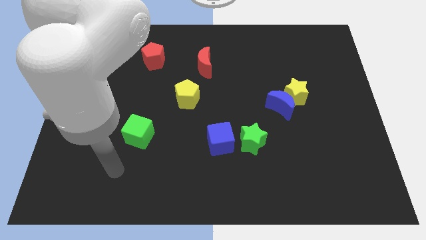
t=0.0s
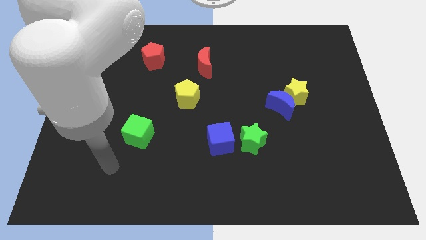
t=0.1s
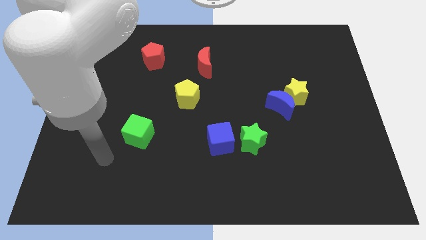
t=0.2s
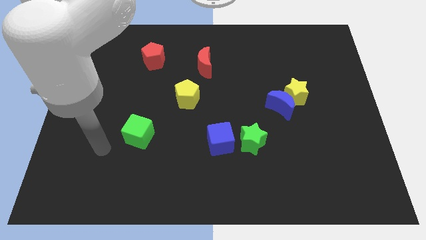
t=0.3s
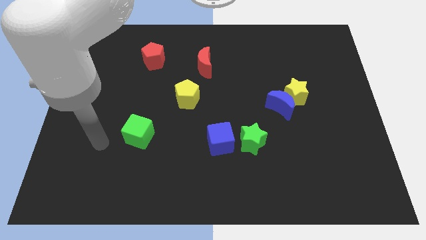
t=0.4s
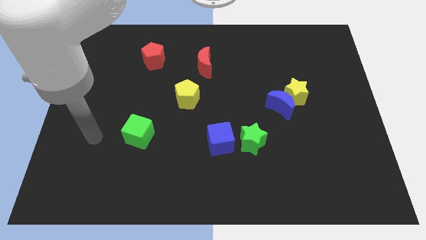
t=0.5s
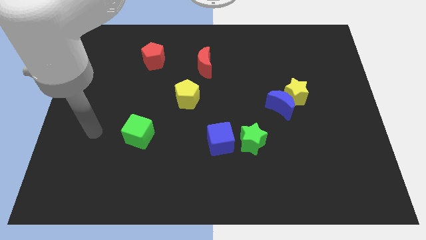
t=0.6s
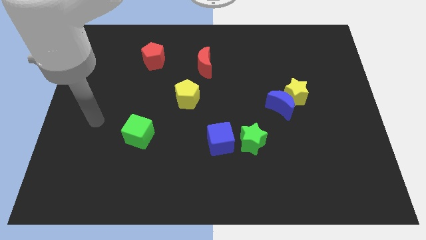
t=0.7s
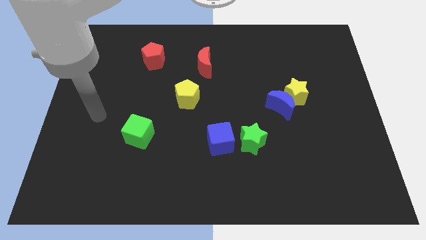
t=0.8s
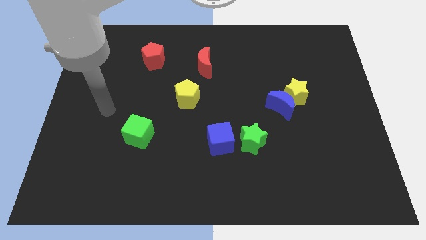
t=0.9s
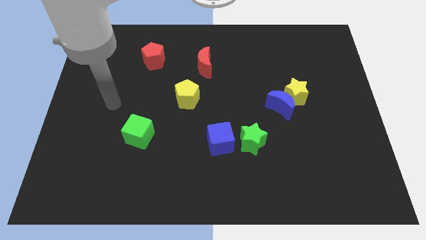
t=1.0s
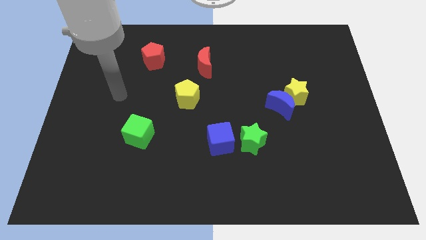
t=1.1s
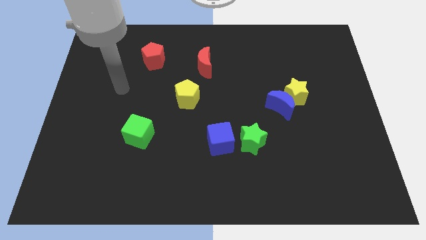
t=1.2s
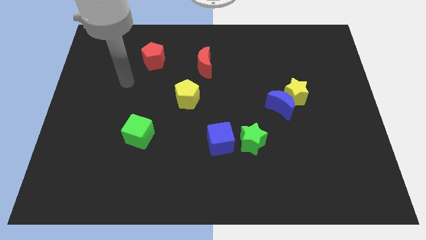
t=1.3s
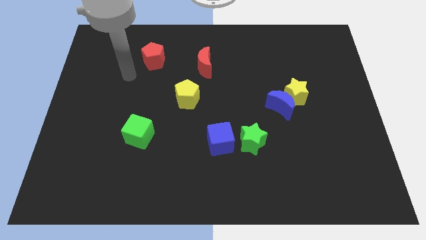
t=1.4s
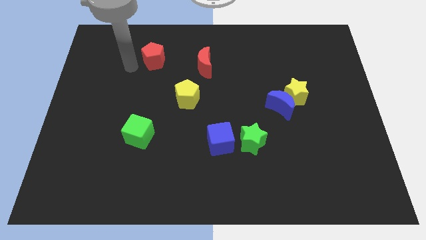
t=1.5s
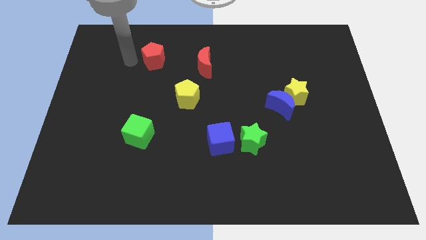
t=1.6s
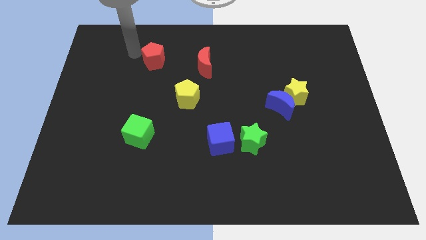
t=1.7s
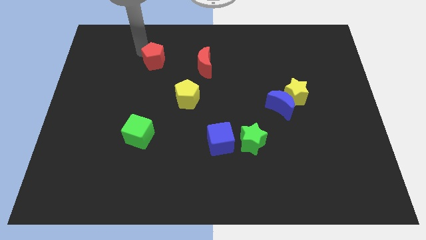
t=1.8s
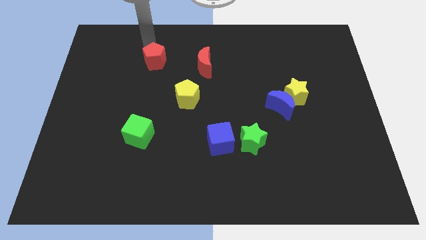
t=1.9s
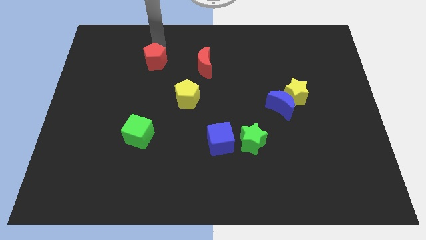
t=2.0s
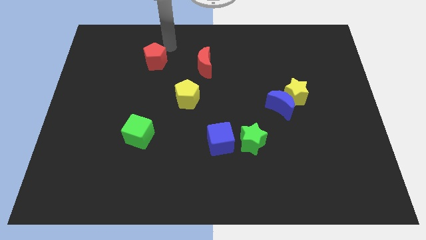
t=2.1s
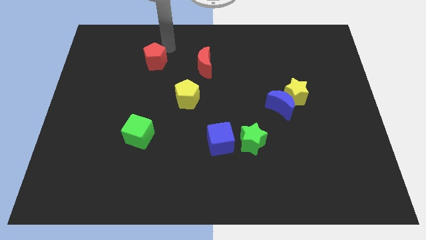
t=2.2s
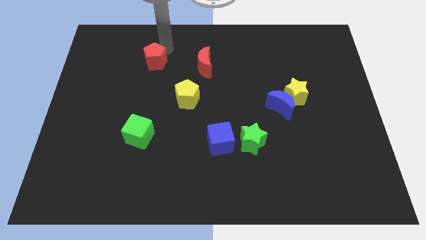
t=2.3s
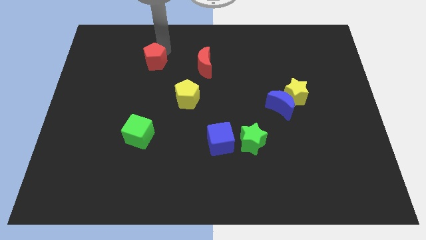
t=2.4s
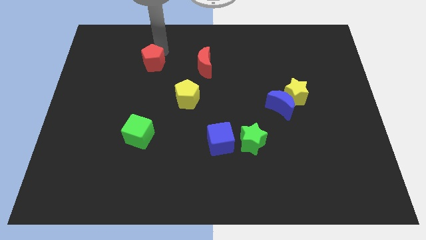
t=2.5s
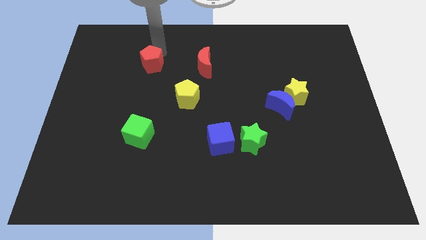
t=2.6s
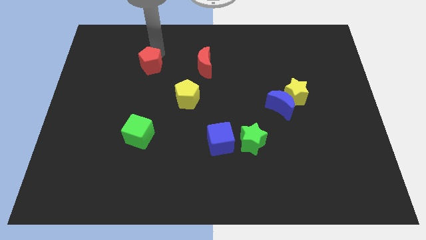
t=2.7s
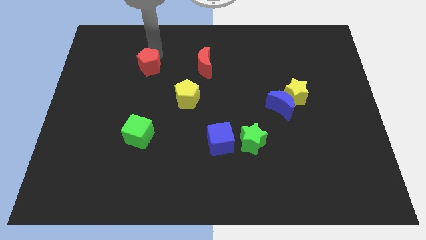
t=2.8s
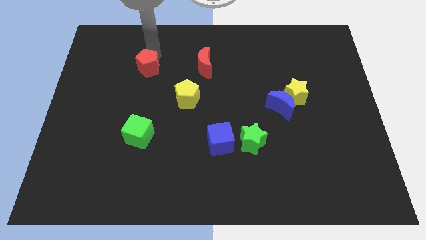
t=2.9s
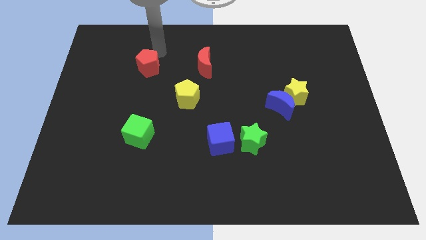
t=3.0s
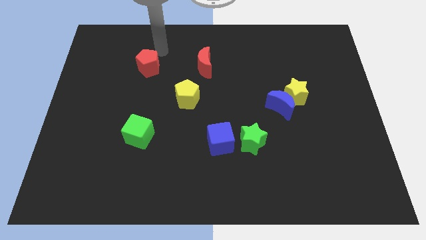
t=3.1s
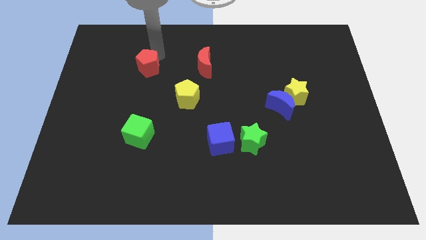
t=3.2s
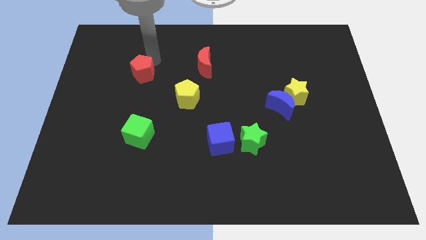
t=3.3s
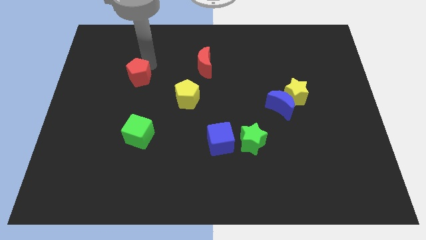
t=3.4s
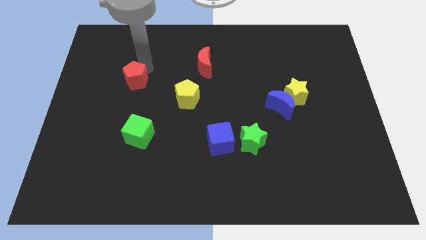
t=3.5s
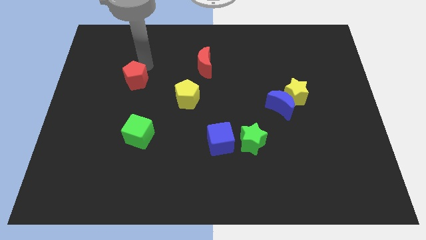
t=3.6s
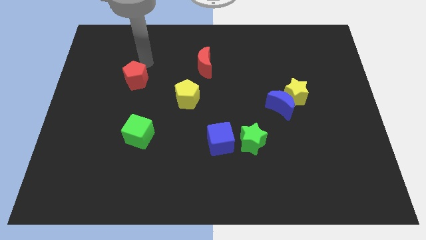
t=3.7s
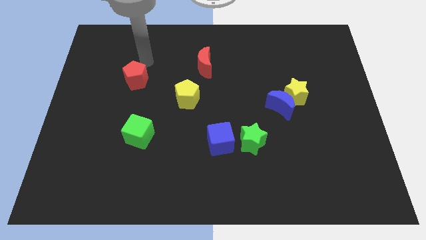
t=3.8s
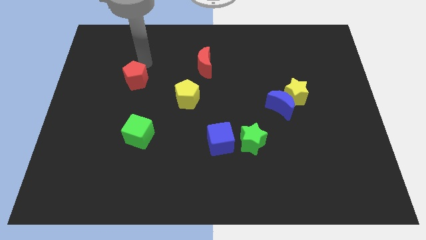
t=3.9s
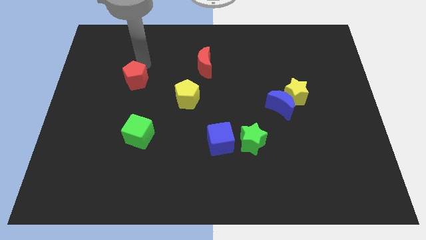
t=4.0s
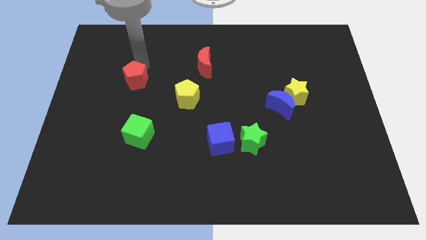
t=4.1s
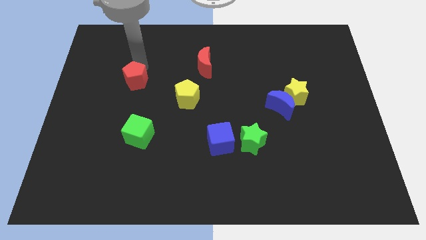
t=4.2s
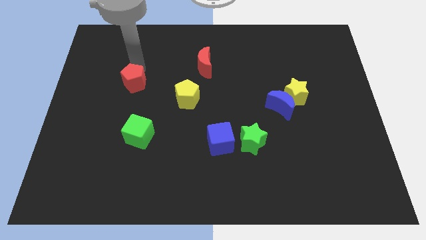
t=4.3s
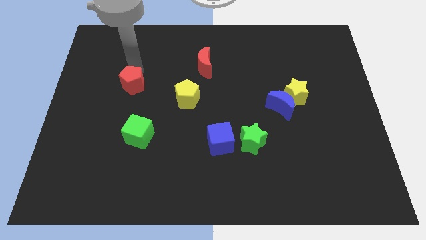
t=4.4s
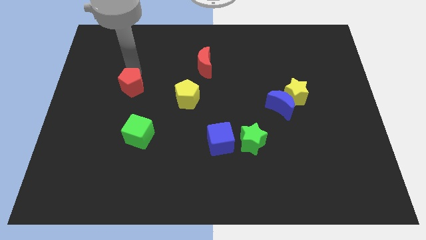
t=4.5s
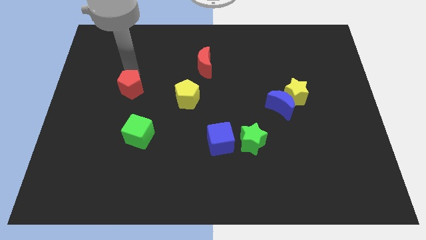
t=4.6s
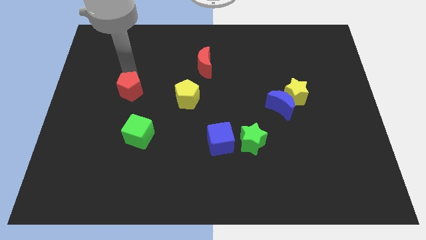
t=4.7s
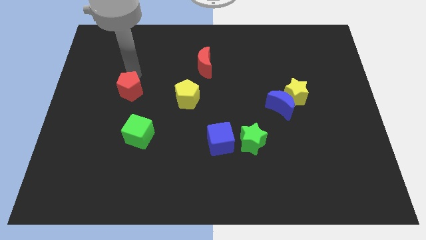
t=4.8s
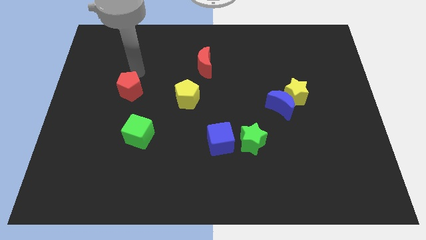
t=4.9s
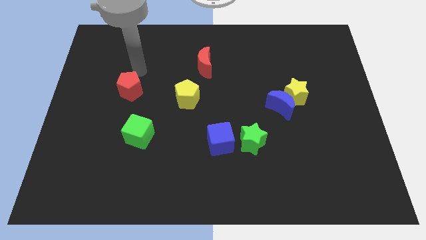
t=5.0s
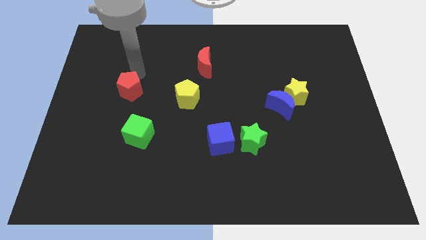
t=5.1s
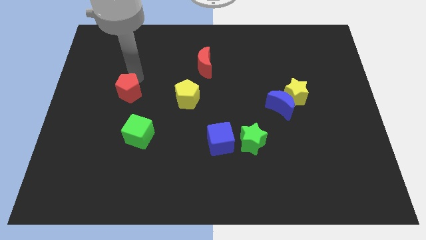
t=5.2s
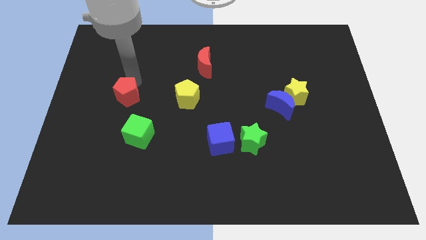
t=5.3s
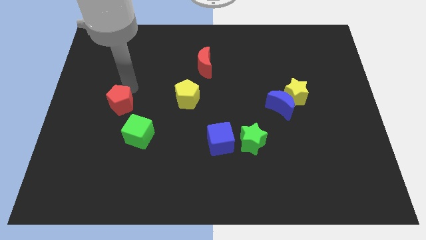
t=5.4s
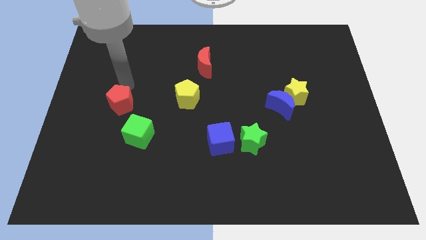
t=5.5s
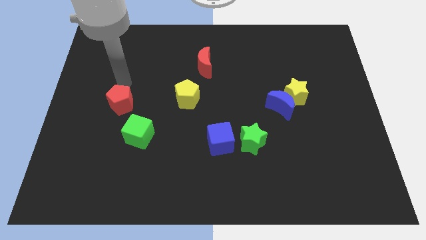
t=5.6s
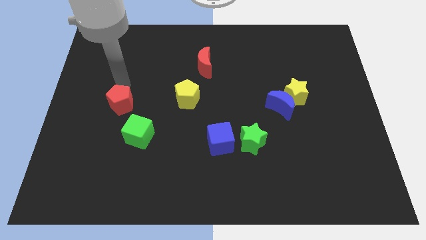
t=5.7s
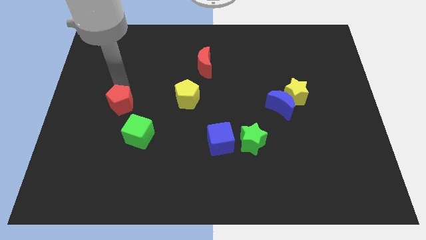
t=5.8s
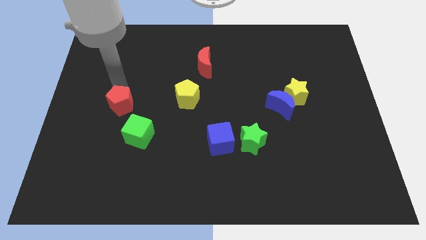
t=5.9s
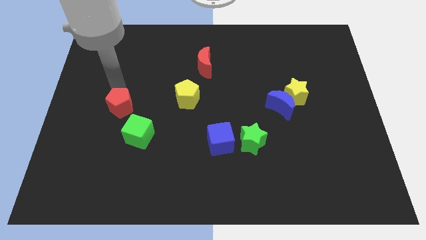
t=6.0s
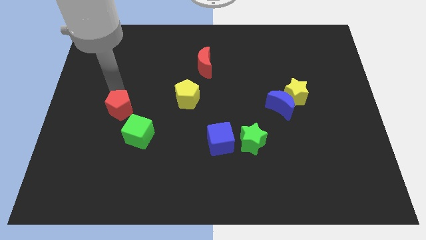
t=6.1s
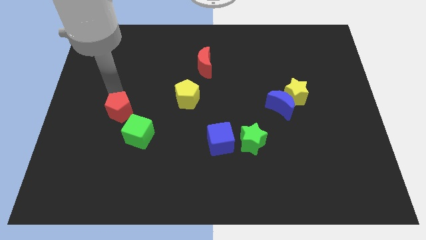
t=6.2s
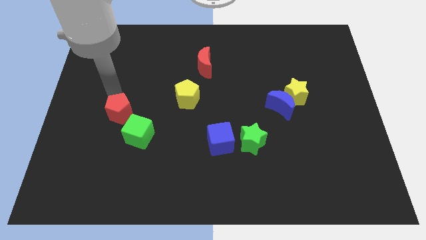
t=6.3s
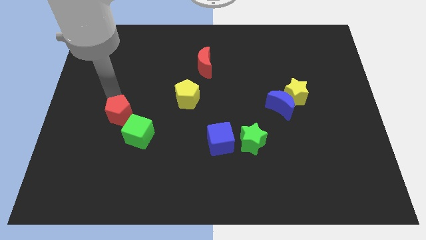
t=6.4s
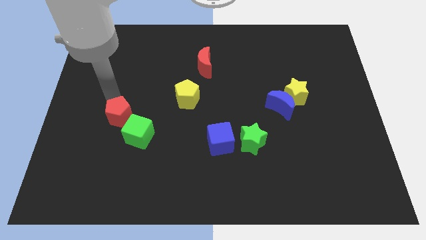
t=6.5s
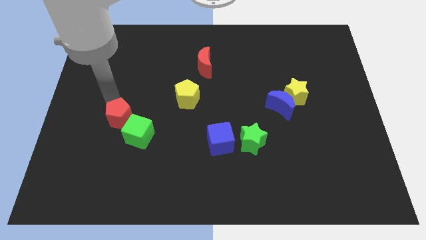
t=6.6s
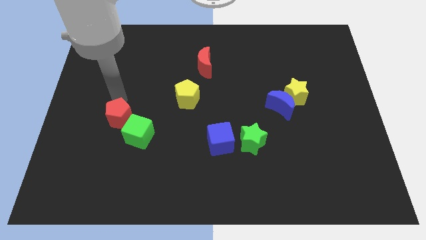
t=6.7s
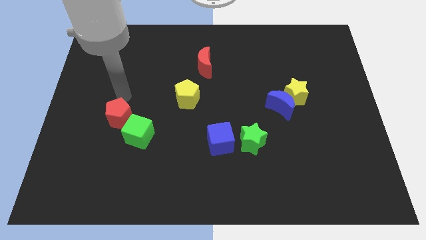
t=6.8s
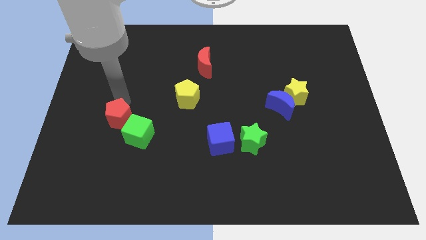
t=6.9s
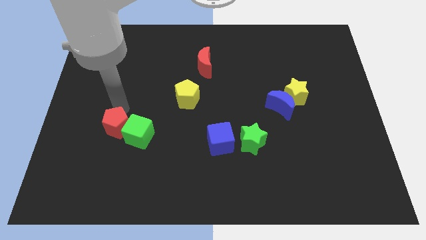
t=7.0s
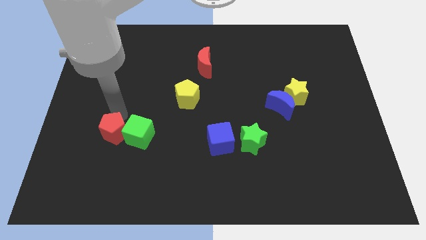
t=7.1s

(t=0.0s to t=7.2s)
slide the red pentagon to the bottom left of the green cube
